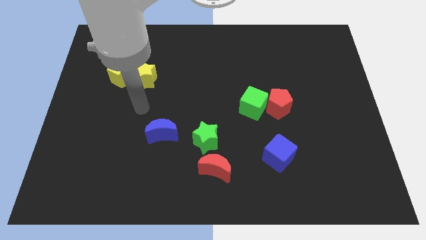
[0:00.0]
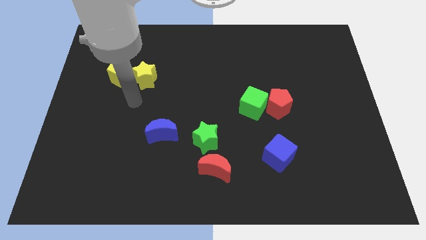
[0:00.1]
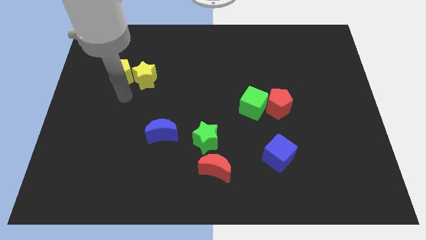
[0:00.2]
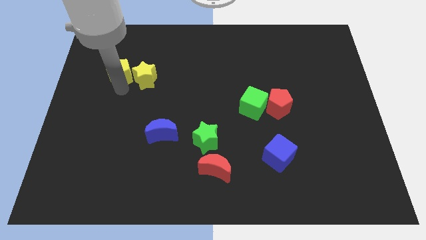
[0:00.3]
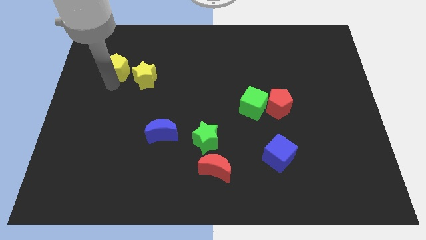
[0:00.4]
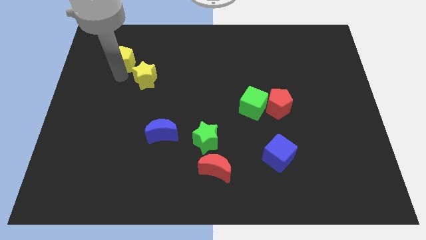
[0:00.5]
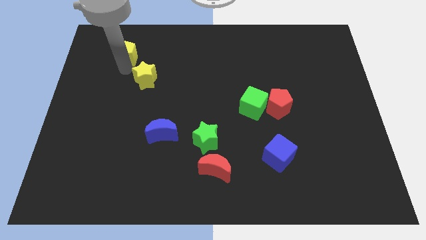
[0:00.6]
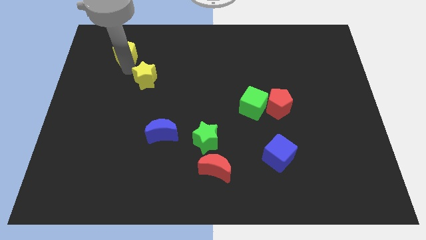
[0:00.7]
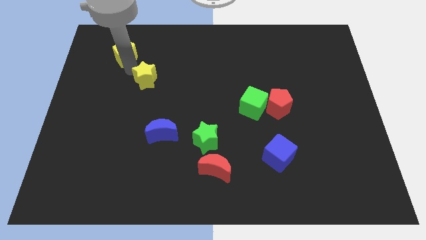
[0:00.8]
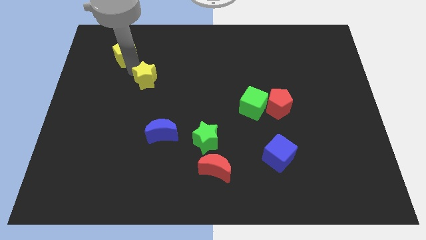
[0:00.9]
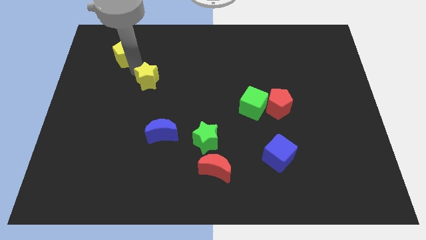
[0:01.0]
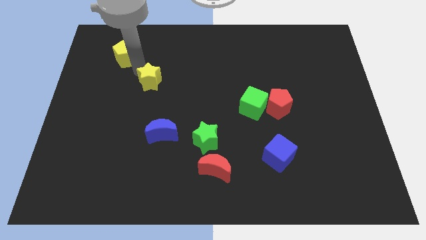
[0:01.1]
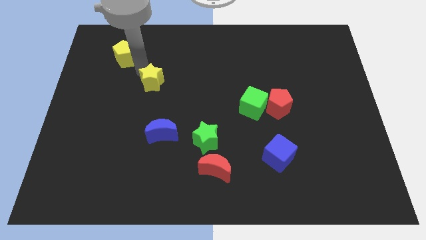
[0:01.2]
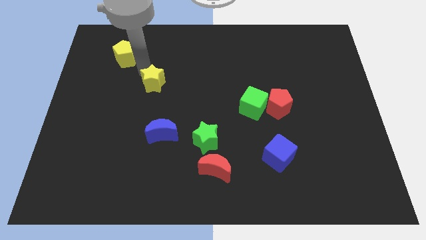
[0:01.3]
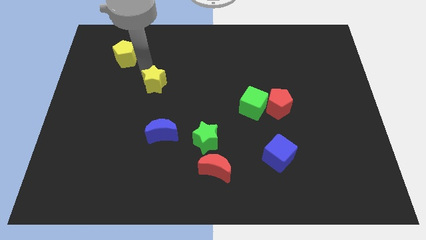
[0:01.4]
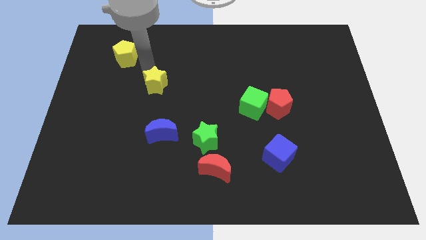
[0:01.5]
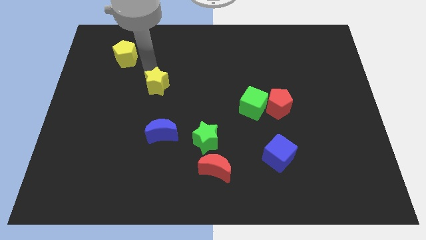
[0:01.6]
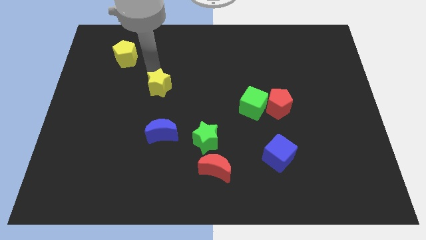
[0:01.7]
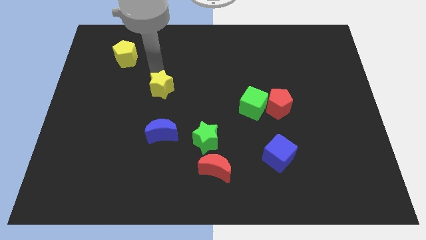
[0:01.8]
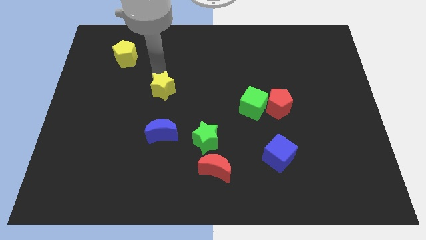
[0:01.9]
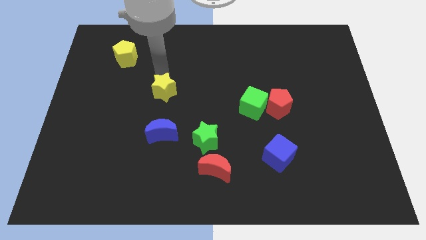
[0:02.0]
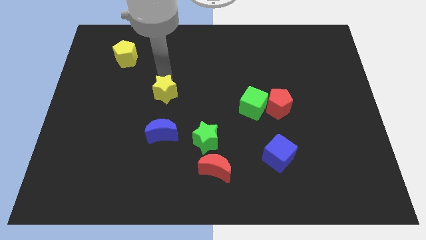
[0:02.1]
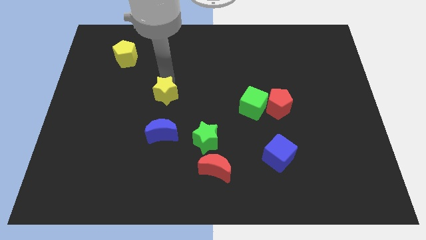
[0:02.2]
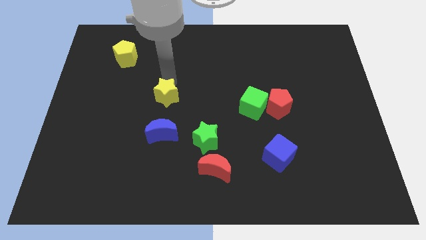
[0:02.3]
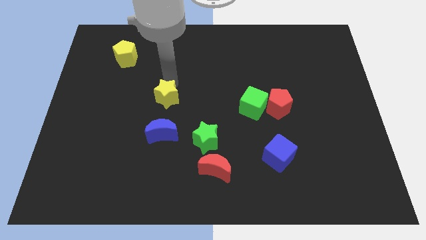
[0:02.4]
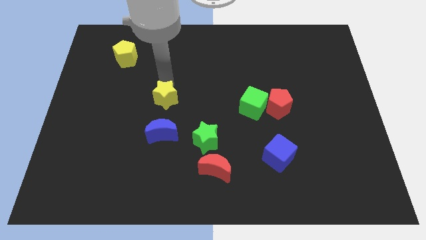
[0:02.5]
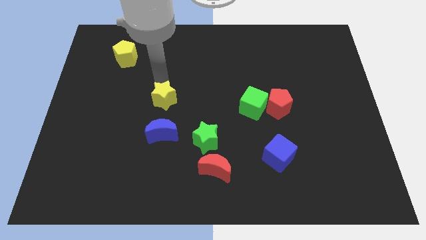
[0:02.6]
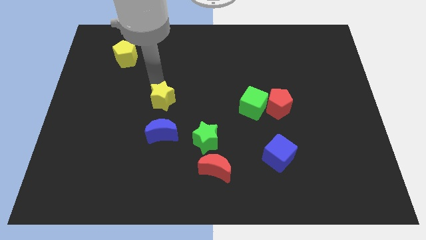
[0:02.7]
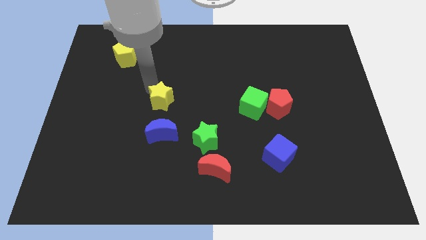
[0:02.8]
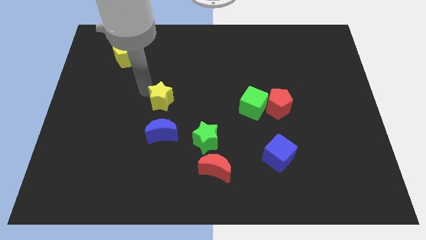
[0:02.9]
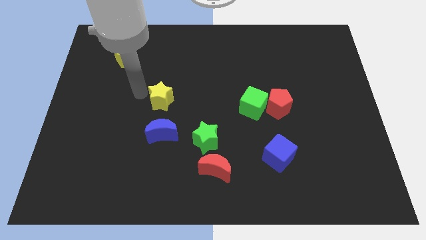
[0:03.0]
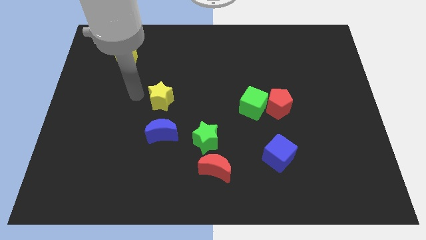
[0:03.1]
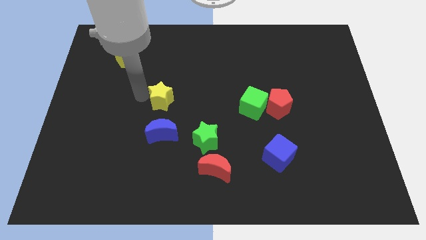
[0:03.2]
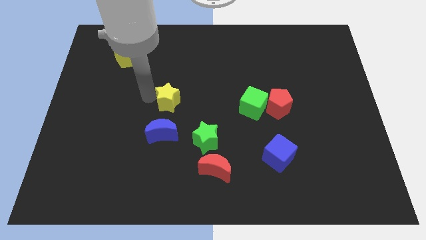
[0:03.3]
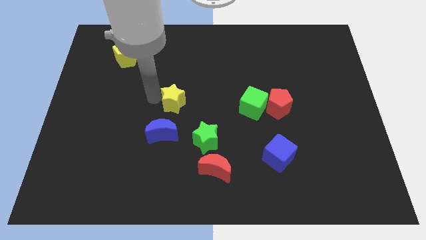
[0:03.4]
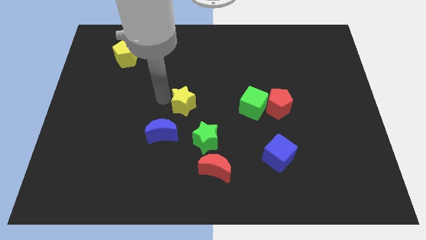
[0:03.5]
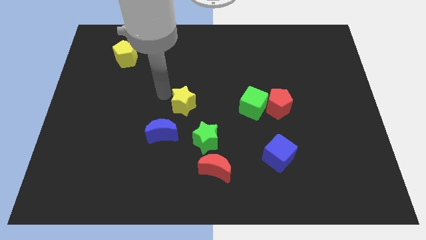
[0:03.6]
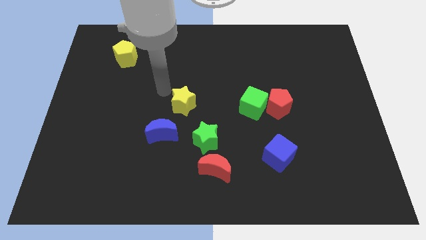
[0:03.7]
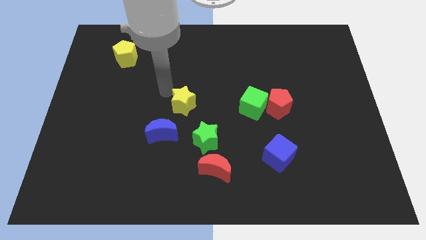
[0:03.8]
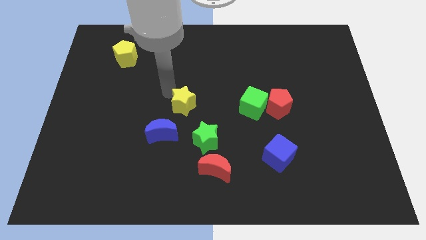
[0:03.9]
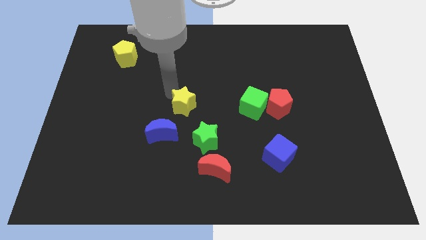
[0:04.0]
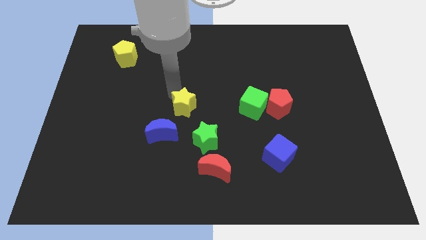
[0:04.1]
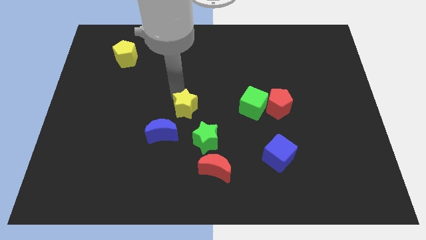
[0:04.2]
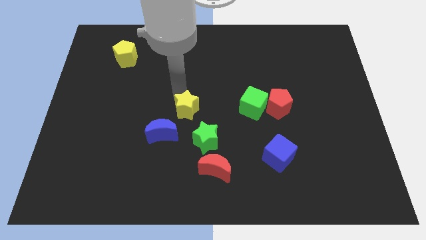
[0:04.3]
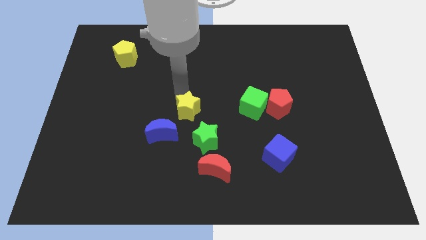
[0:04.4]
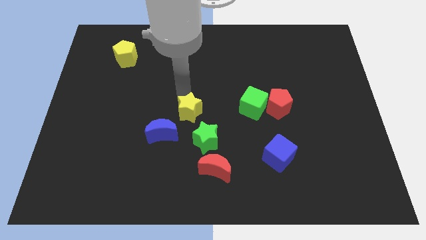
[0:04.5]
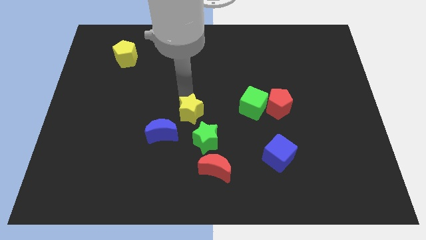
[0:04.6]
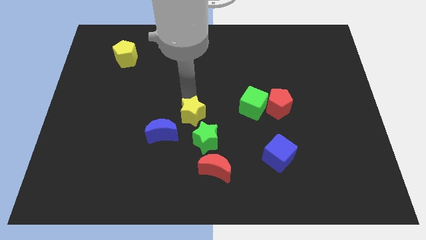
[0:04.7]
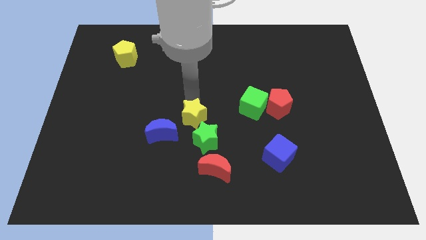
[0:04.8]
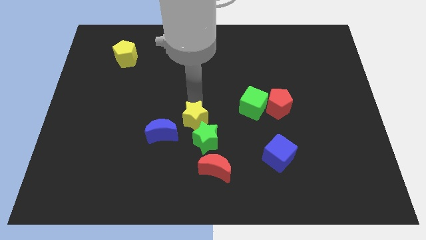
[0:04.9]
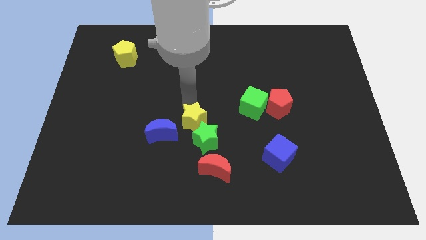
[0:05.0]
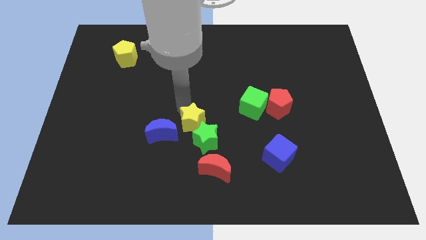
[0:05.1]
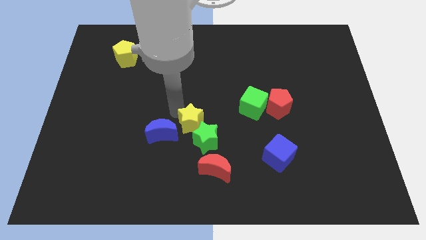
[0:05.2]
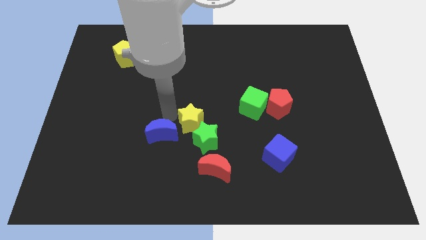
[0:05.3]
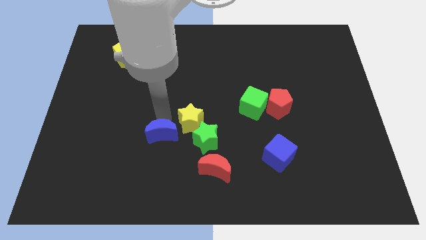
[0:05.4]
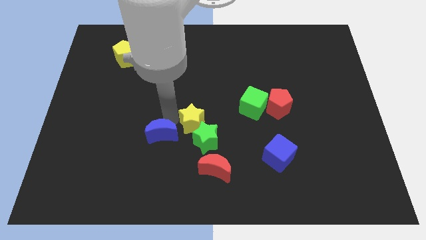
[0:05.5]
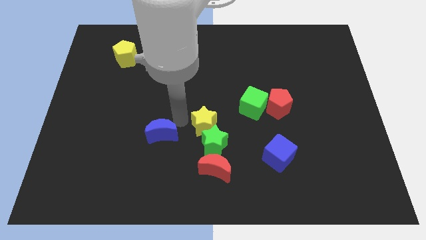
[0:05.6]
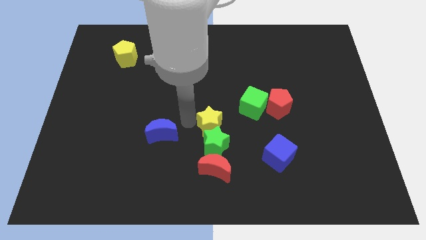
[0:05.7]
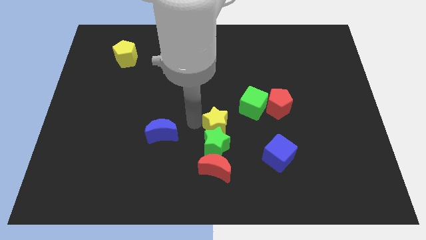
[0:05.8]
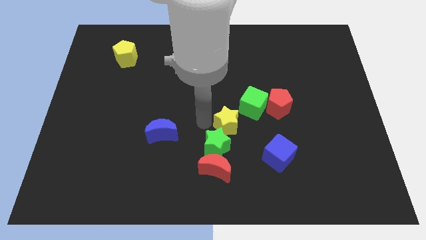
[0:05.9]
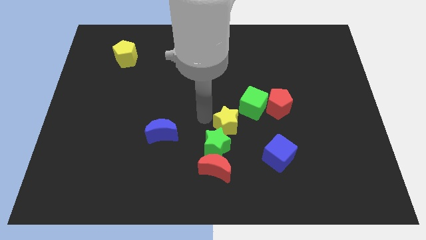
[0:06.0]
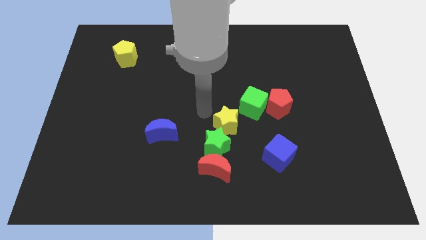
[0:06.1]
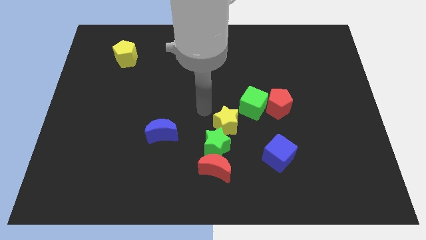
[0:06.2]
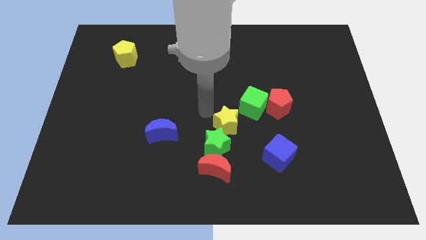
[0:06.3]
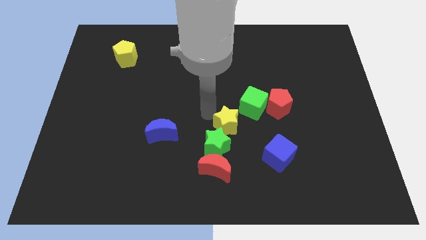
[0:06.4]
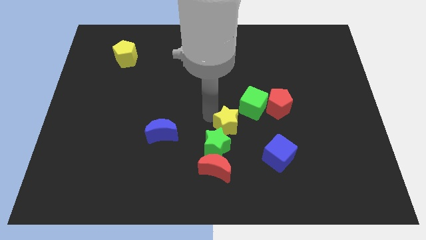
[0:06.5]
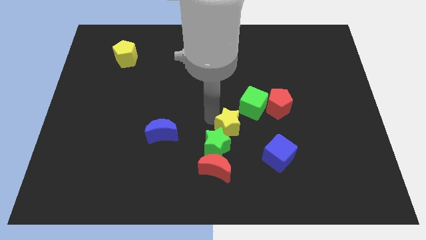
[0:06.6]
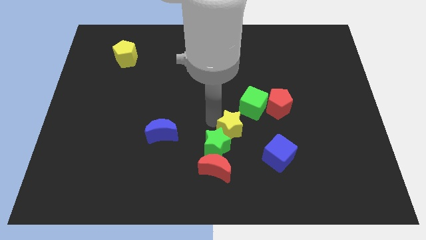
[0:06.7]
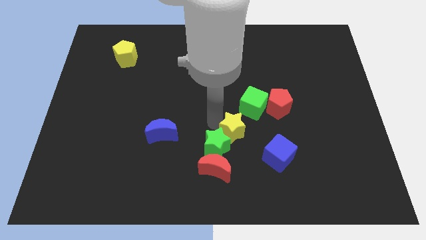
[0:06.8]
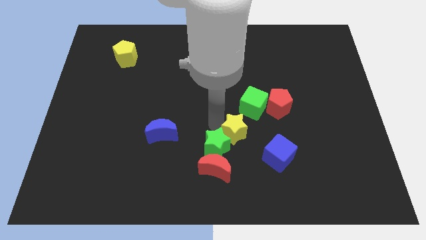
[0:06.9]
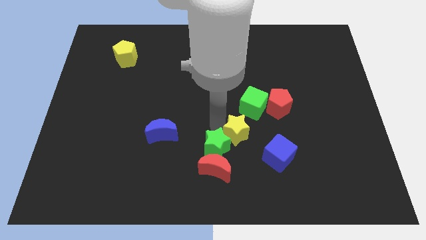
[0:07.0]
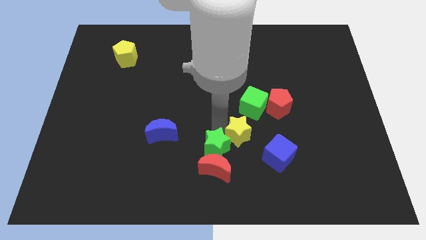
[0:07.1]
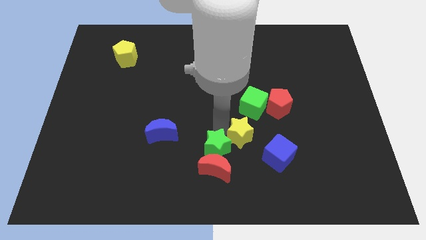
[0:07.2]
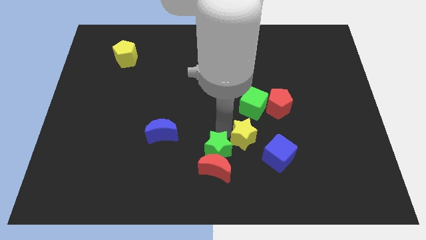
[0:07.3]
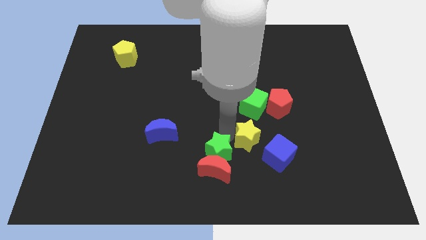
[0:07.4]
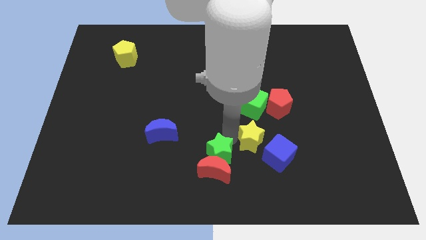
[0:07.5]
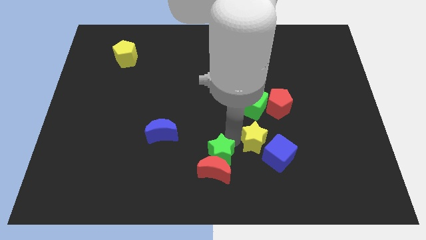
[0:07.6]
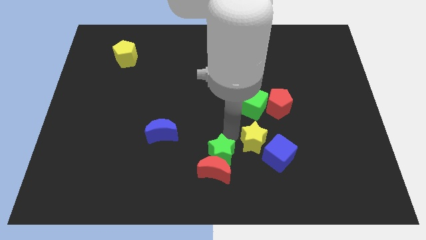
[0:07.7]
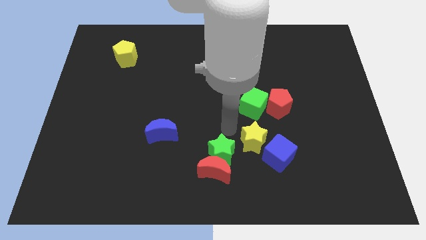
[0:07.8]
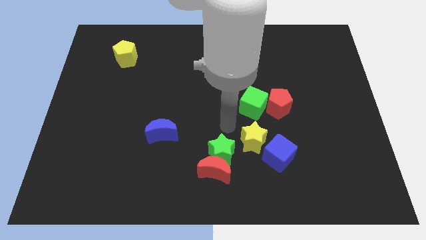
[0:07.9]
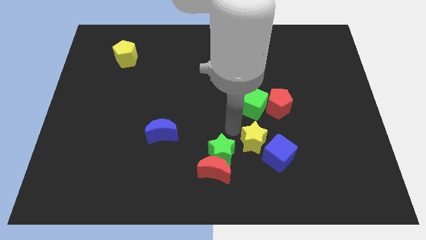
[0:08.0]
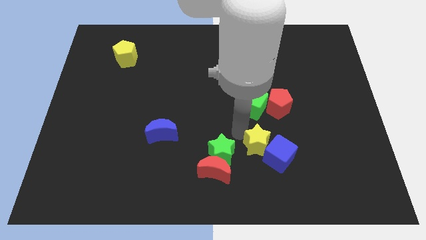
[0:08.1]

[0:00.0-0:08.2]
push the yellow star to the blue cube
